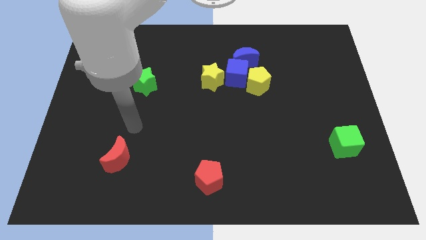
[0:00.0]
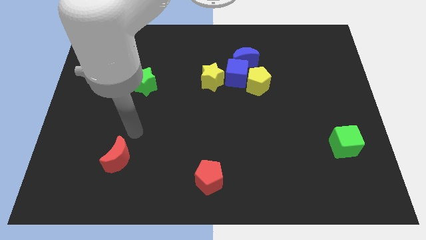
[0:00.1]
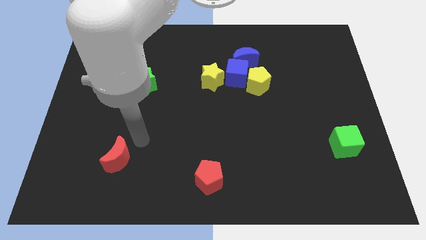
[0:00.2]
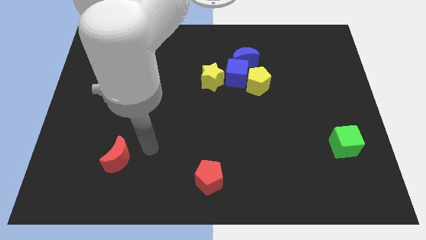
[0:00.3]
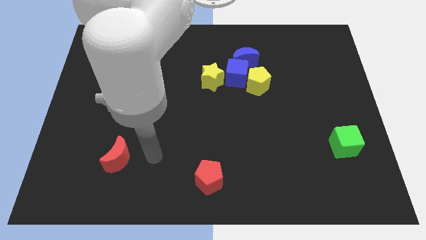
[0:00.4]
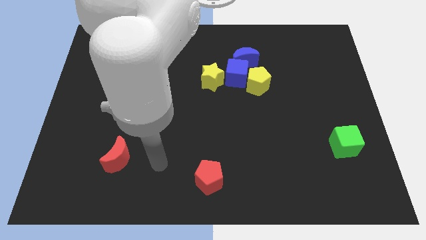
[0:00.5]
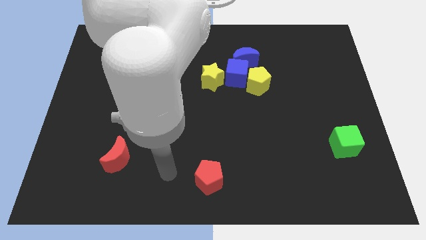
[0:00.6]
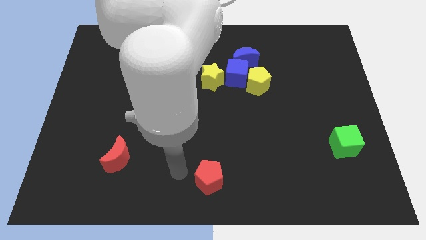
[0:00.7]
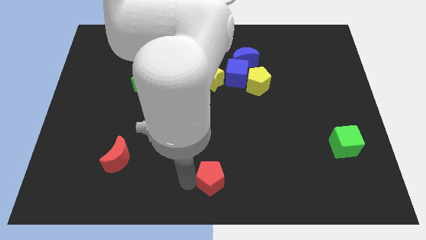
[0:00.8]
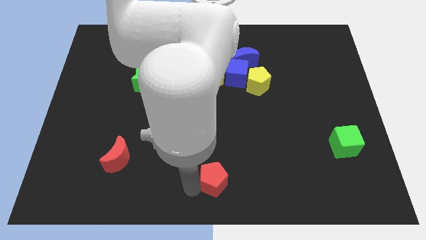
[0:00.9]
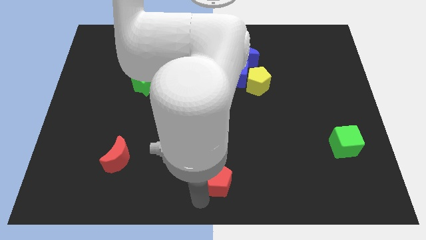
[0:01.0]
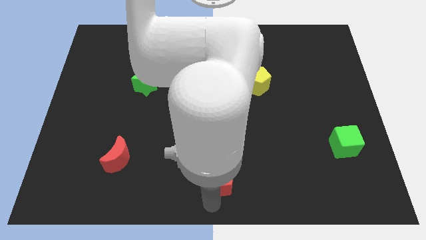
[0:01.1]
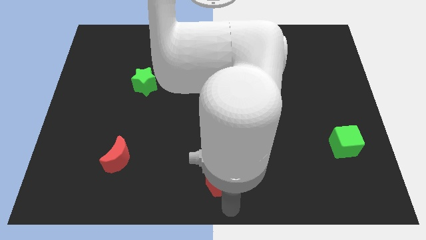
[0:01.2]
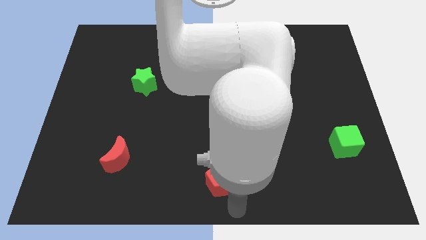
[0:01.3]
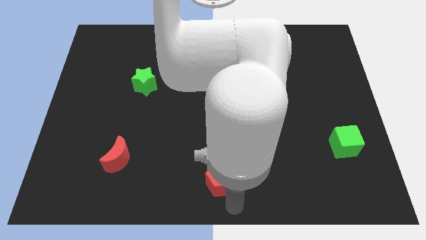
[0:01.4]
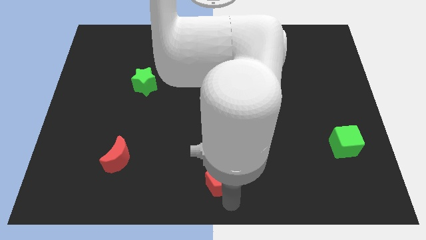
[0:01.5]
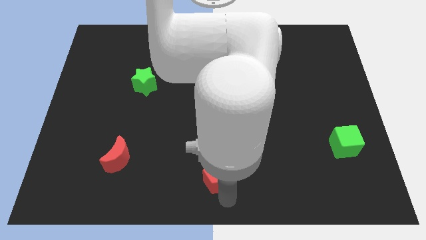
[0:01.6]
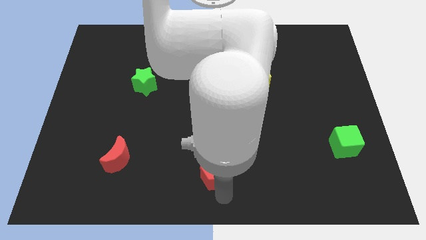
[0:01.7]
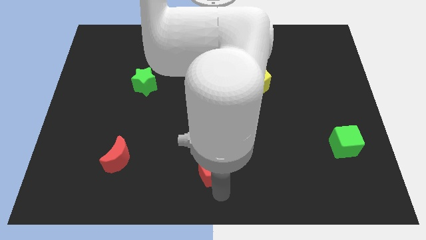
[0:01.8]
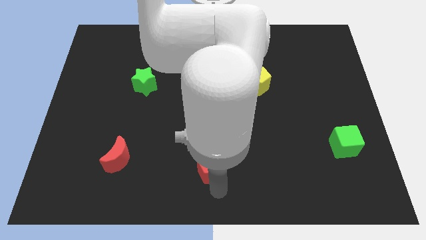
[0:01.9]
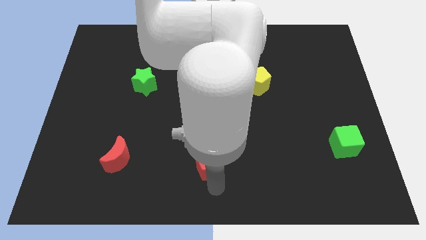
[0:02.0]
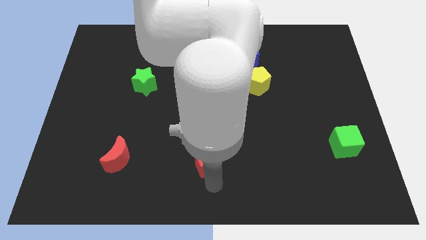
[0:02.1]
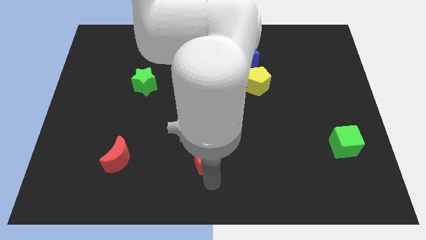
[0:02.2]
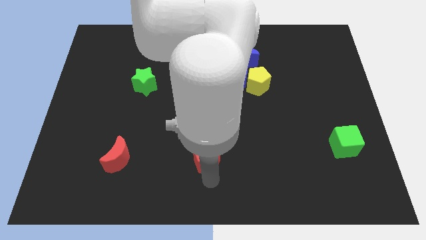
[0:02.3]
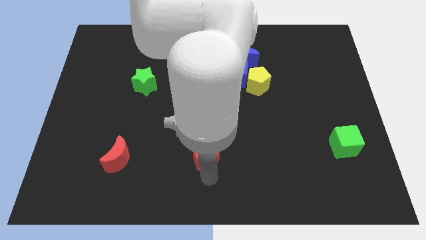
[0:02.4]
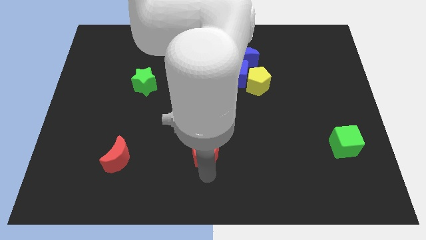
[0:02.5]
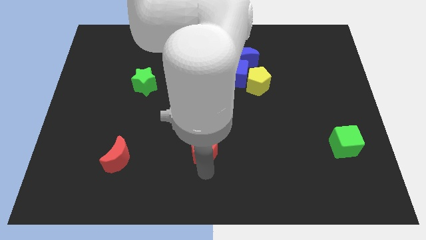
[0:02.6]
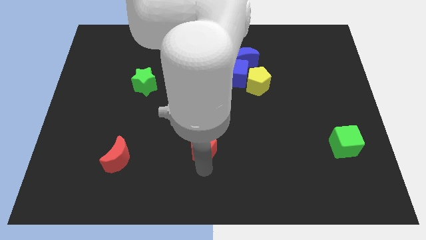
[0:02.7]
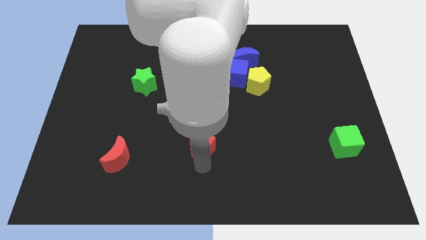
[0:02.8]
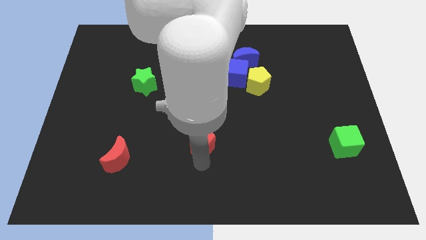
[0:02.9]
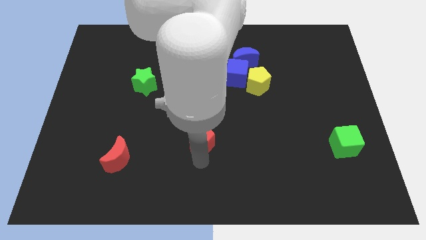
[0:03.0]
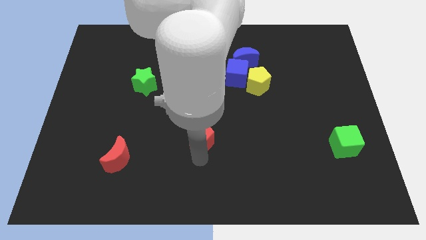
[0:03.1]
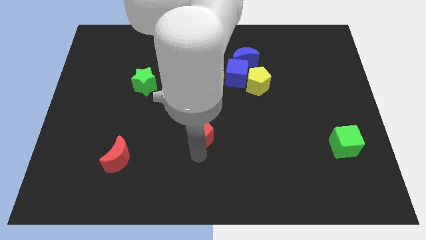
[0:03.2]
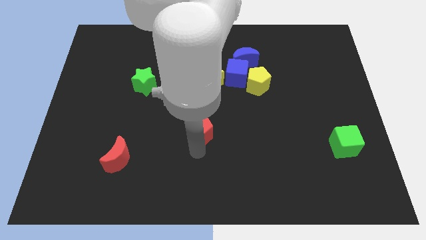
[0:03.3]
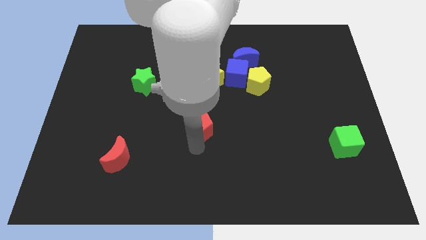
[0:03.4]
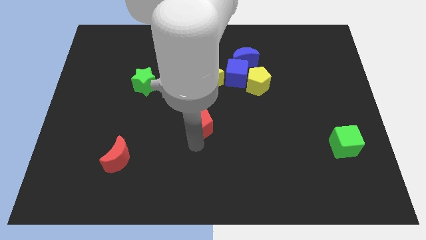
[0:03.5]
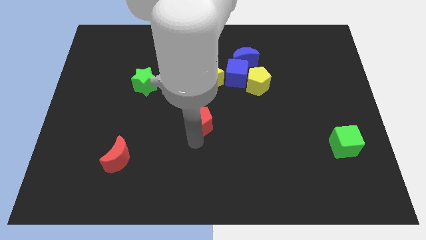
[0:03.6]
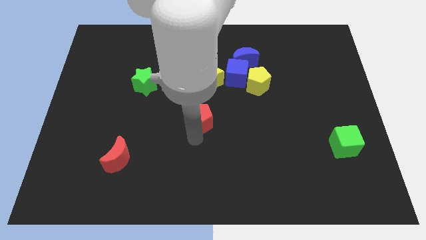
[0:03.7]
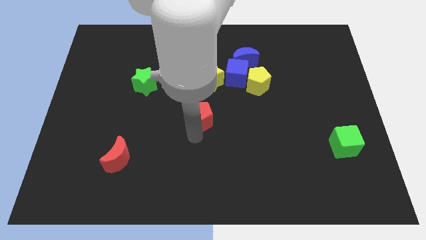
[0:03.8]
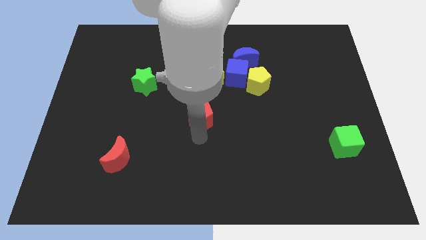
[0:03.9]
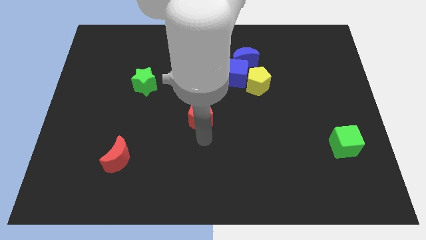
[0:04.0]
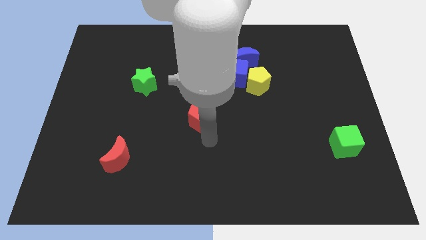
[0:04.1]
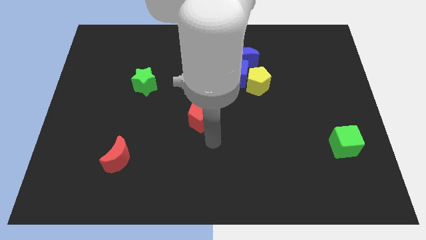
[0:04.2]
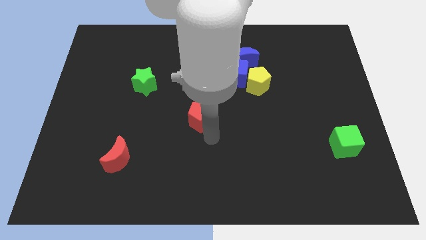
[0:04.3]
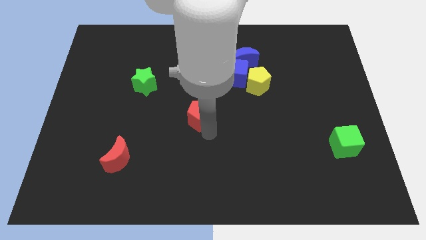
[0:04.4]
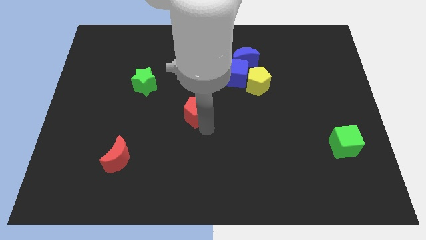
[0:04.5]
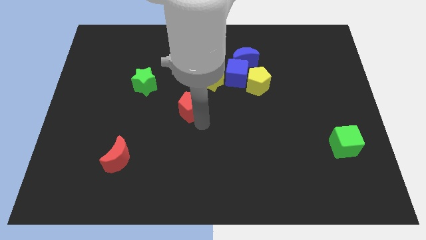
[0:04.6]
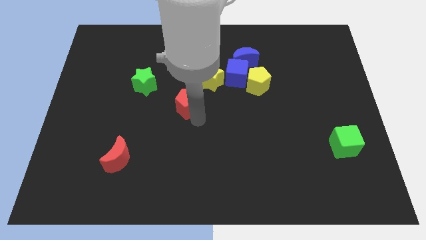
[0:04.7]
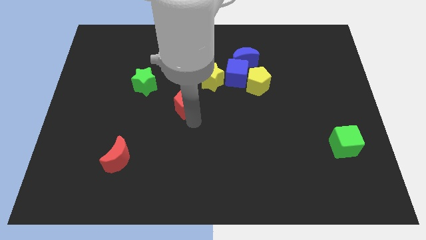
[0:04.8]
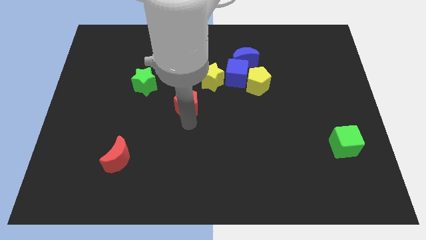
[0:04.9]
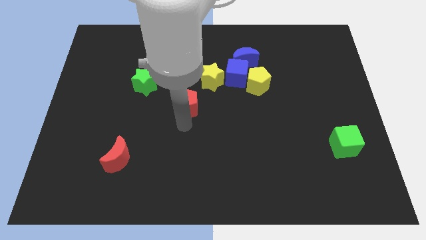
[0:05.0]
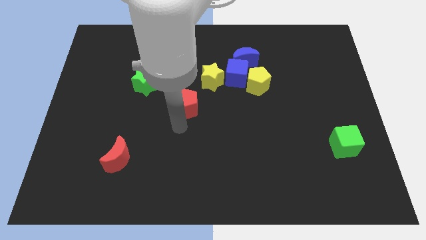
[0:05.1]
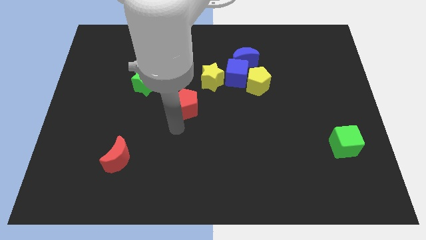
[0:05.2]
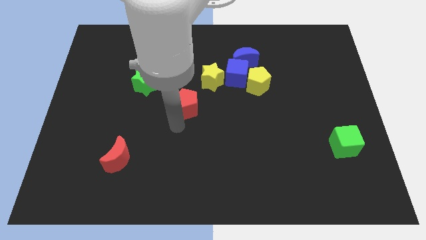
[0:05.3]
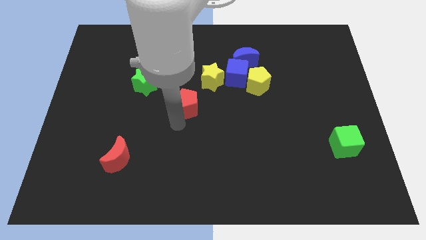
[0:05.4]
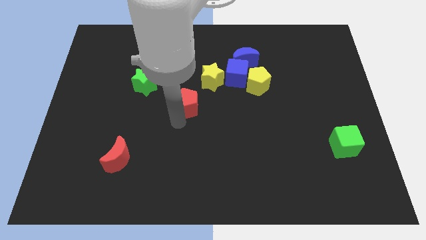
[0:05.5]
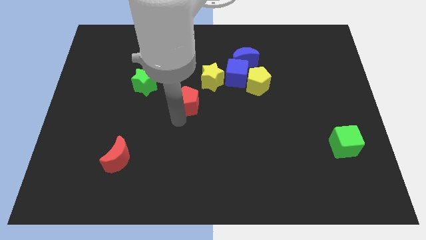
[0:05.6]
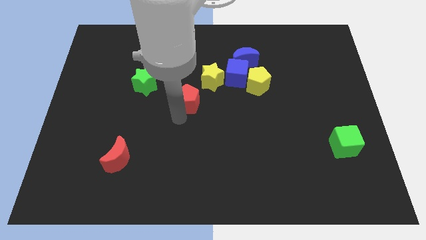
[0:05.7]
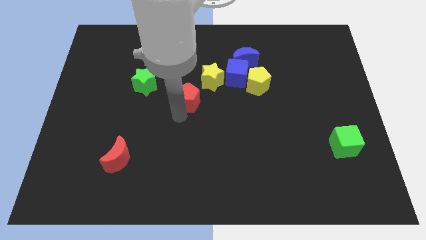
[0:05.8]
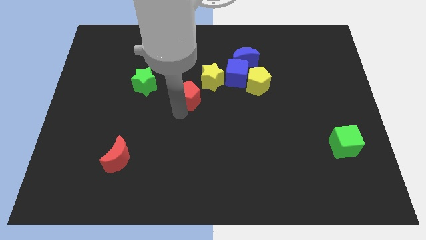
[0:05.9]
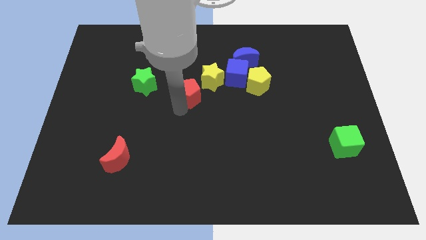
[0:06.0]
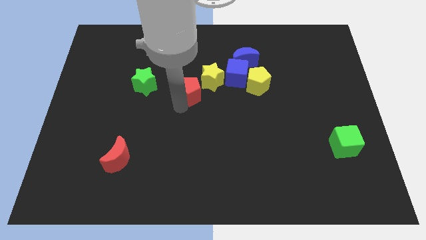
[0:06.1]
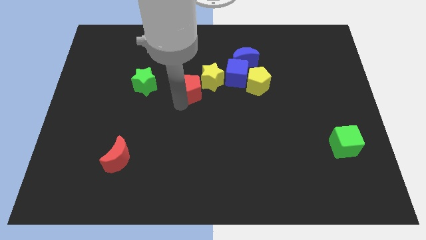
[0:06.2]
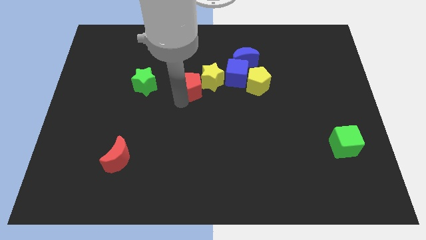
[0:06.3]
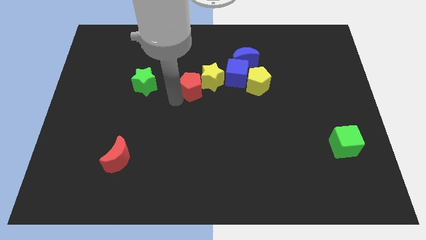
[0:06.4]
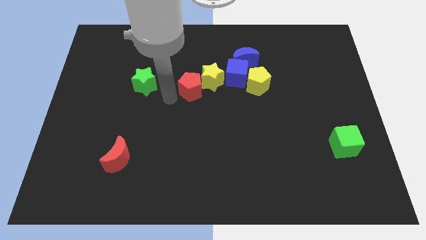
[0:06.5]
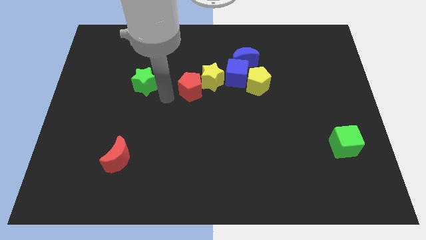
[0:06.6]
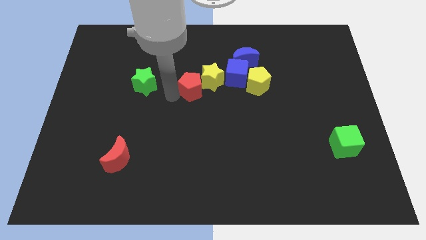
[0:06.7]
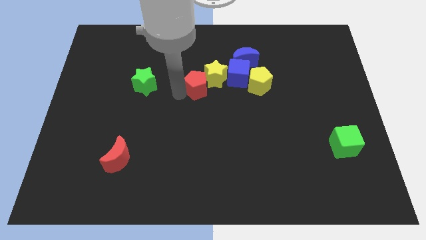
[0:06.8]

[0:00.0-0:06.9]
move the red pentagon to the left side of the yellow pentagon
